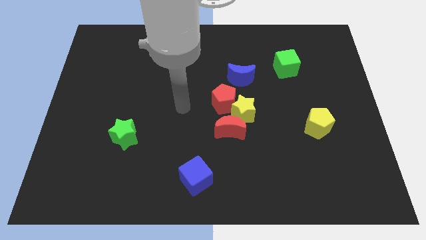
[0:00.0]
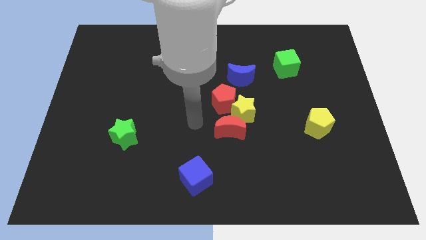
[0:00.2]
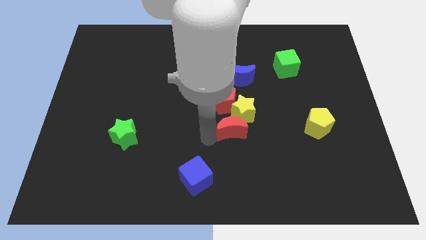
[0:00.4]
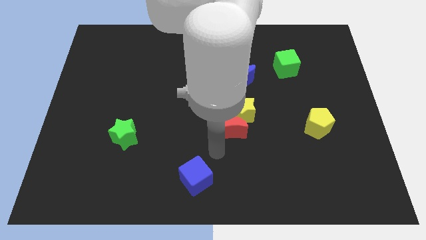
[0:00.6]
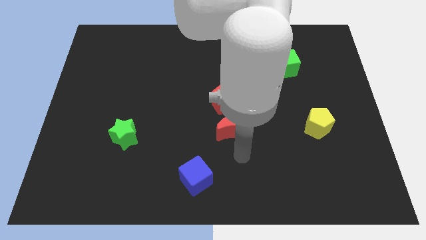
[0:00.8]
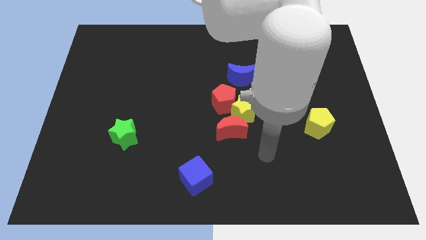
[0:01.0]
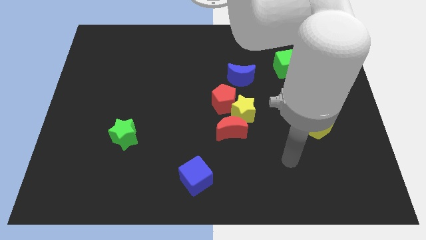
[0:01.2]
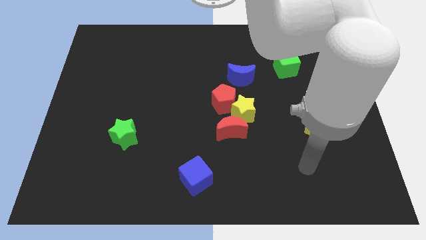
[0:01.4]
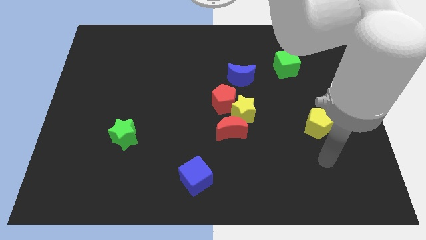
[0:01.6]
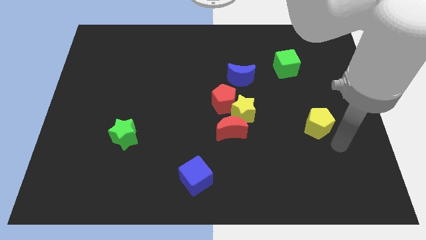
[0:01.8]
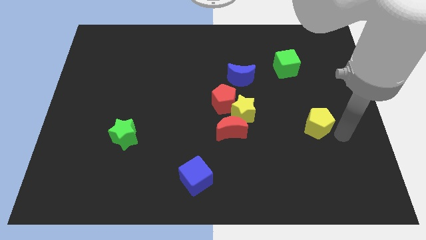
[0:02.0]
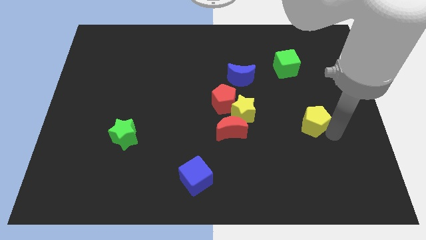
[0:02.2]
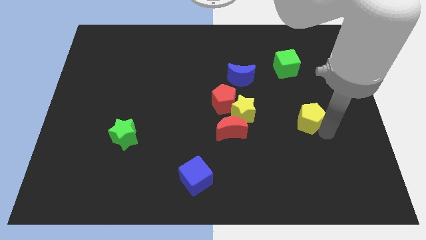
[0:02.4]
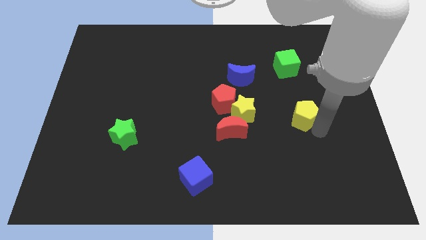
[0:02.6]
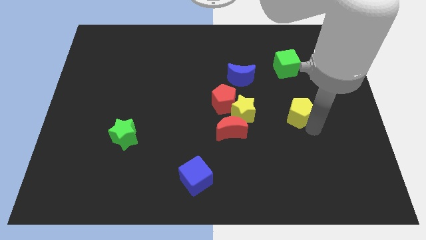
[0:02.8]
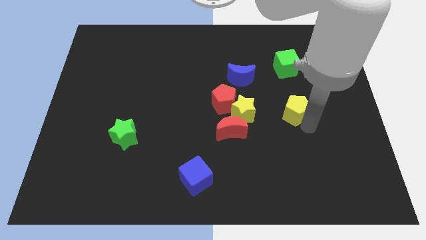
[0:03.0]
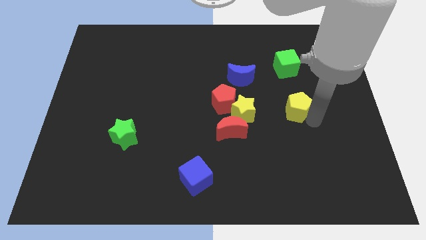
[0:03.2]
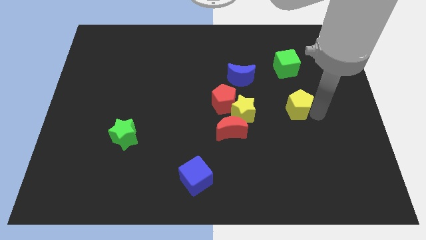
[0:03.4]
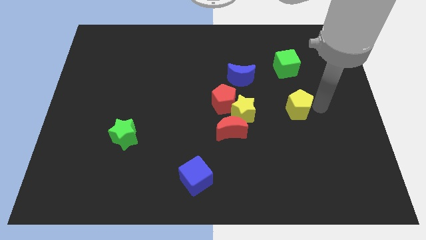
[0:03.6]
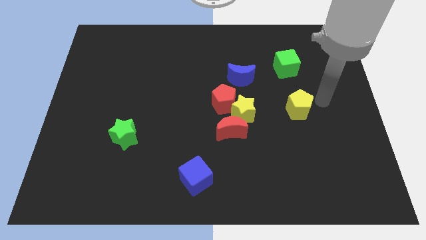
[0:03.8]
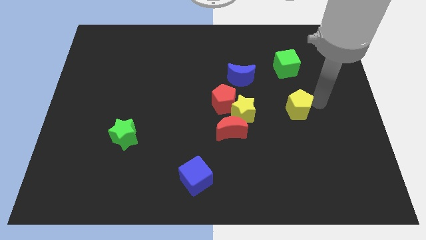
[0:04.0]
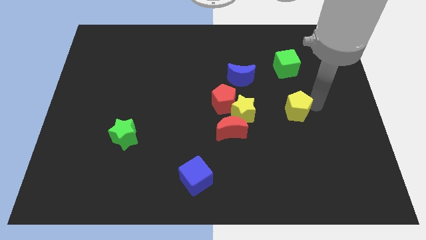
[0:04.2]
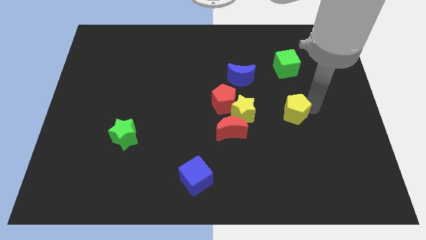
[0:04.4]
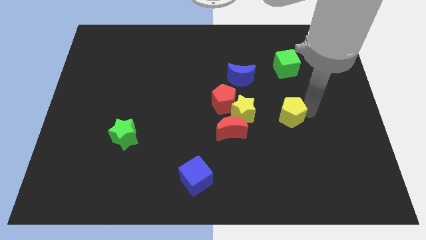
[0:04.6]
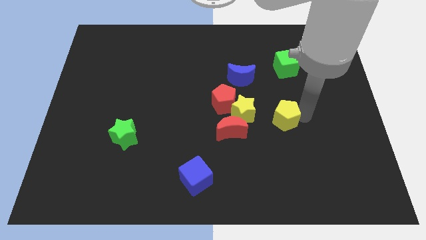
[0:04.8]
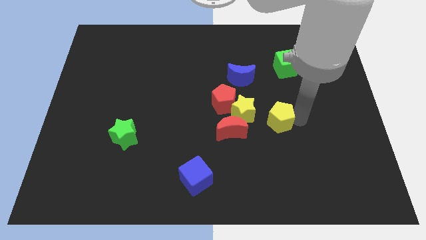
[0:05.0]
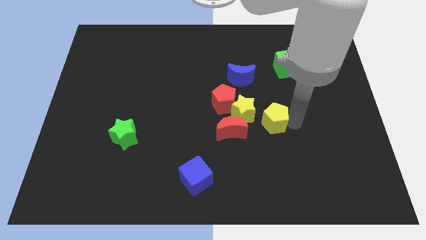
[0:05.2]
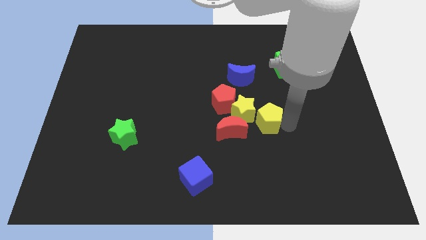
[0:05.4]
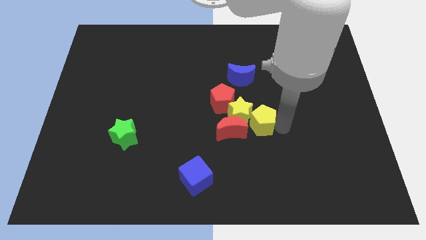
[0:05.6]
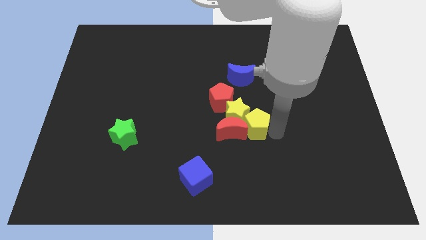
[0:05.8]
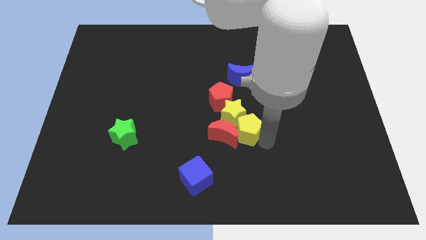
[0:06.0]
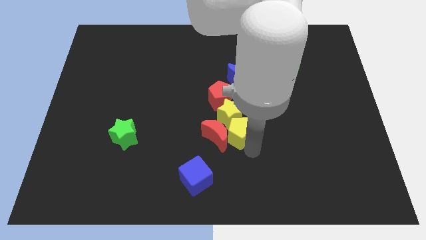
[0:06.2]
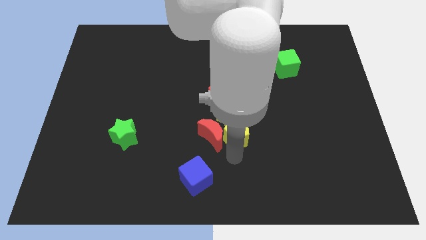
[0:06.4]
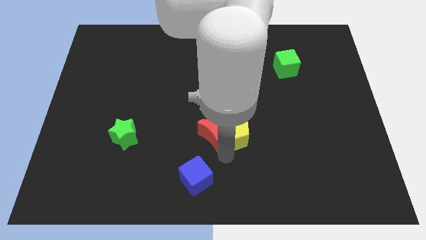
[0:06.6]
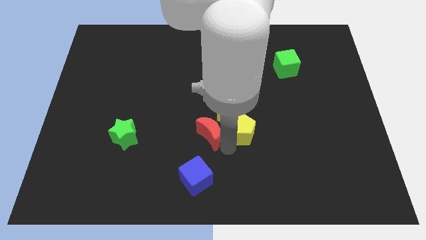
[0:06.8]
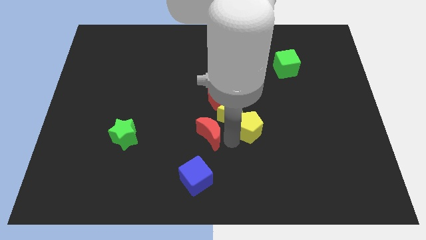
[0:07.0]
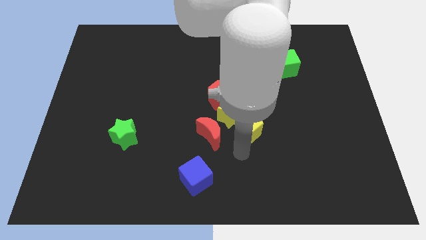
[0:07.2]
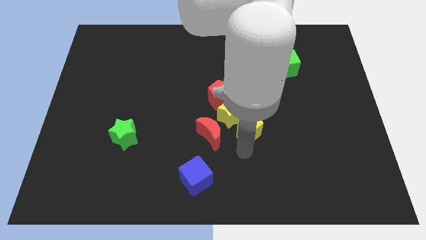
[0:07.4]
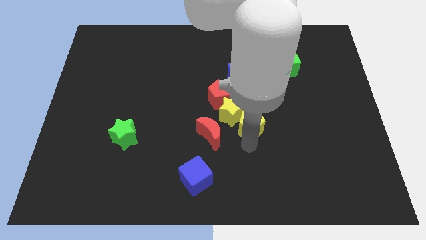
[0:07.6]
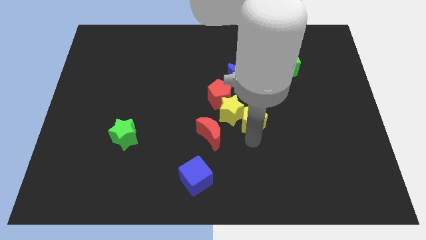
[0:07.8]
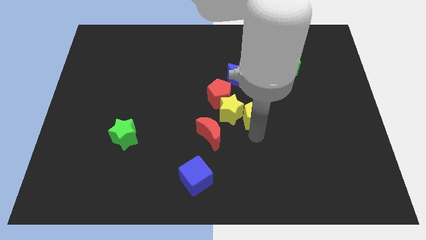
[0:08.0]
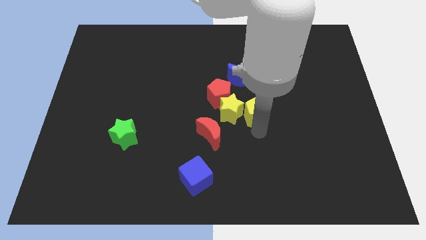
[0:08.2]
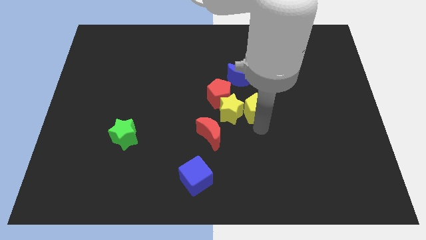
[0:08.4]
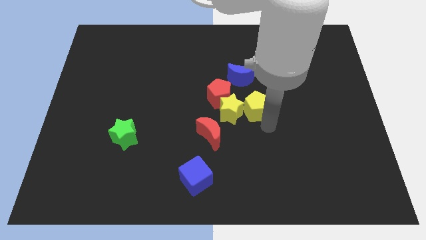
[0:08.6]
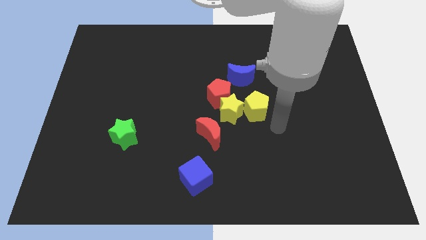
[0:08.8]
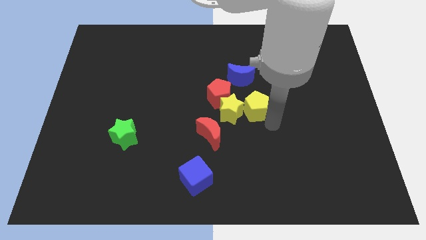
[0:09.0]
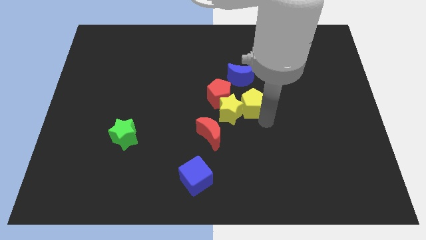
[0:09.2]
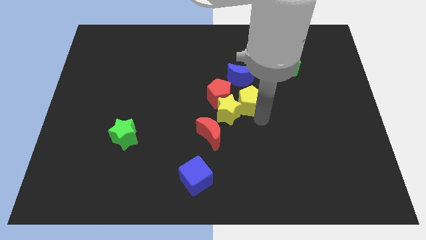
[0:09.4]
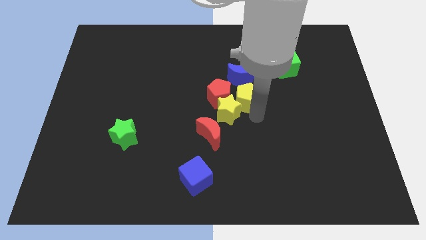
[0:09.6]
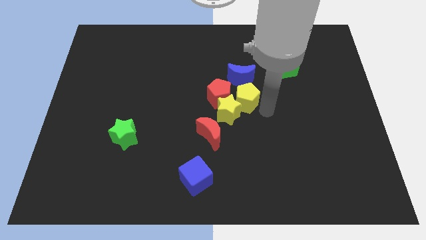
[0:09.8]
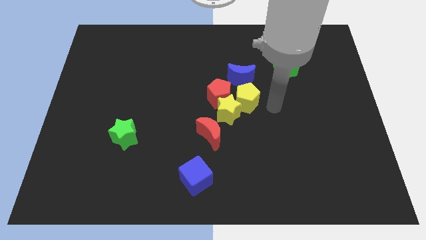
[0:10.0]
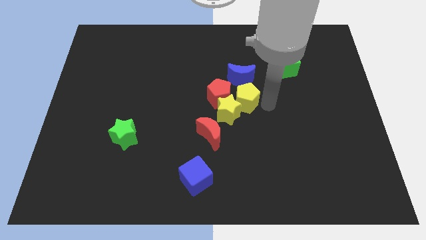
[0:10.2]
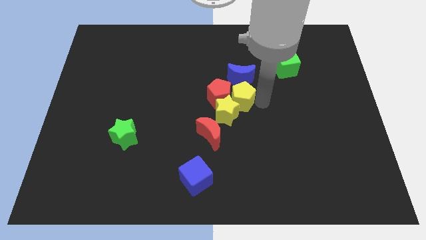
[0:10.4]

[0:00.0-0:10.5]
put the yellow pentagon next to the red pentagon

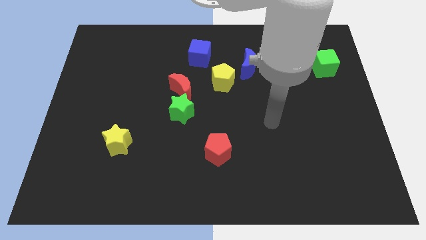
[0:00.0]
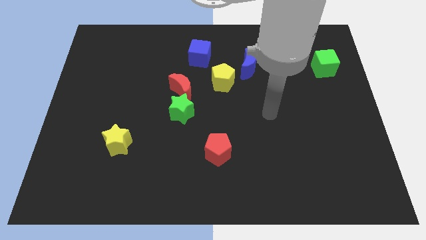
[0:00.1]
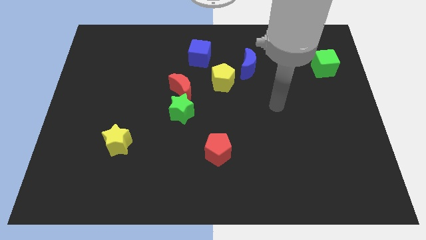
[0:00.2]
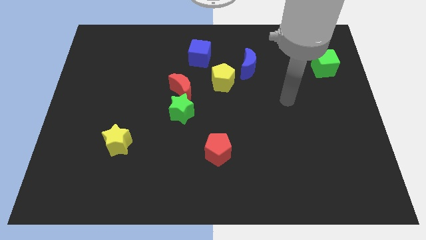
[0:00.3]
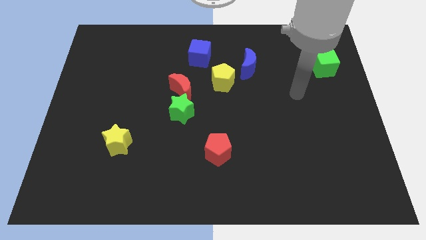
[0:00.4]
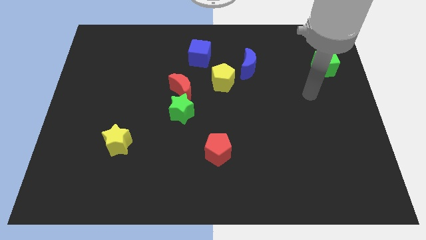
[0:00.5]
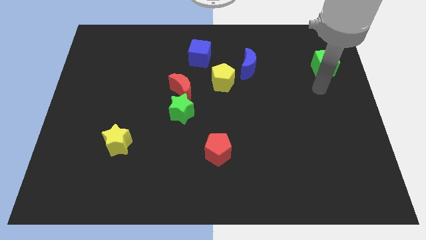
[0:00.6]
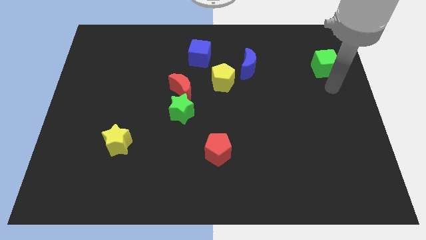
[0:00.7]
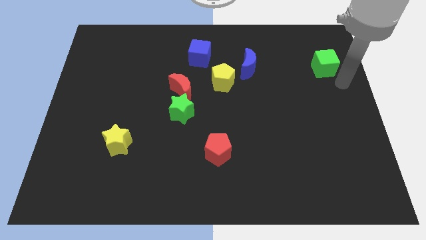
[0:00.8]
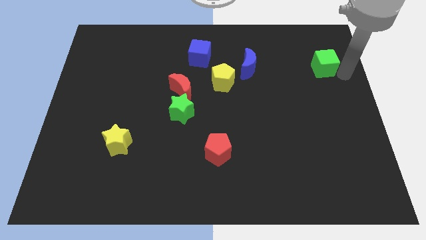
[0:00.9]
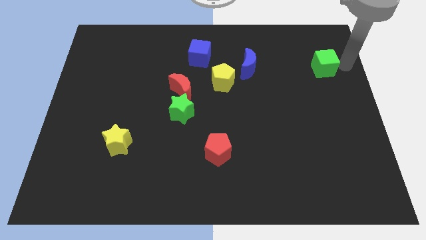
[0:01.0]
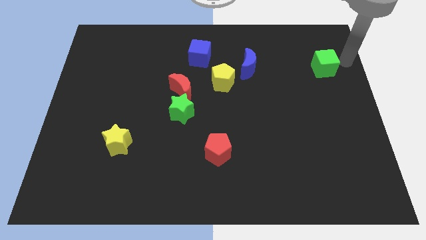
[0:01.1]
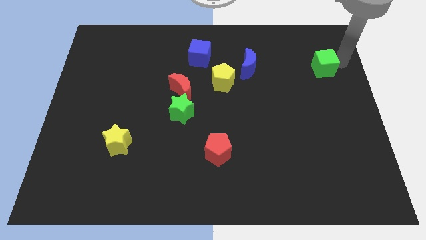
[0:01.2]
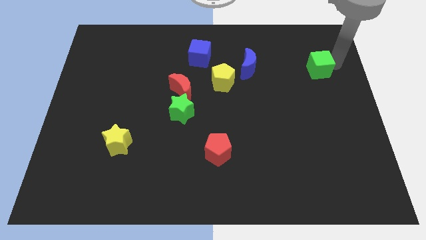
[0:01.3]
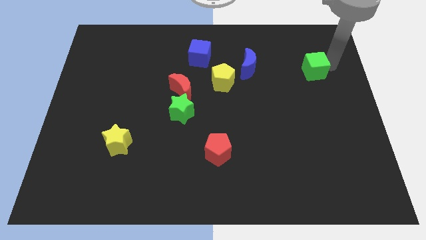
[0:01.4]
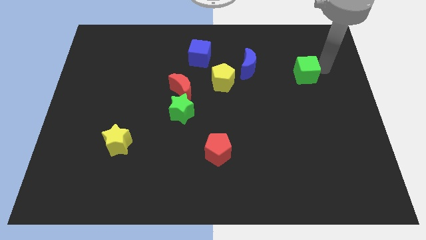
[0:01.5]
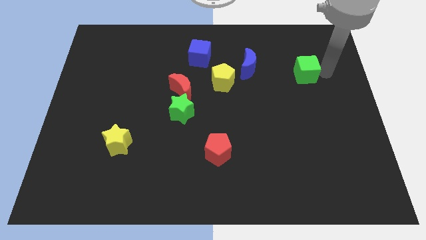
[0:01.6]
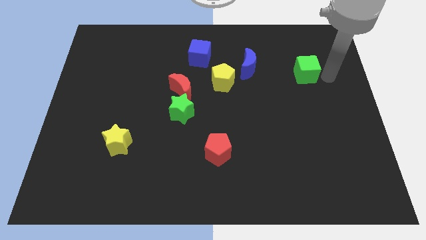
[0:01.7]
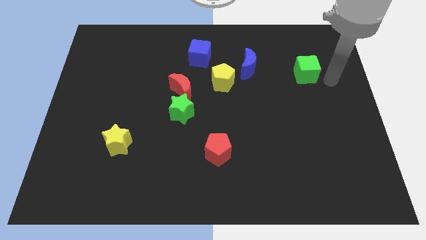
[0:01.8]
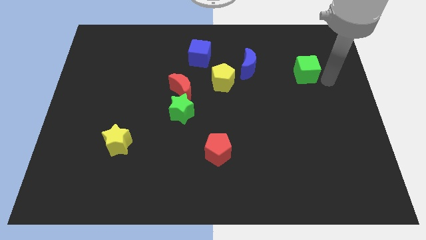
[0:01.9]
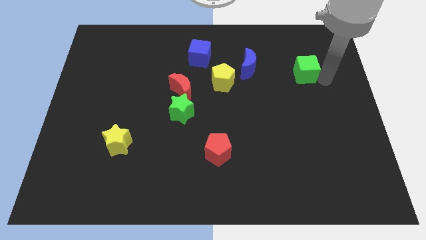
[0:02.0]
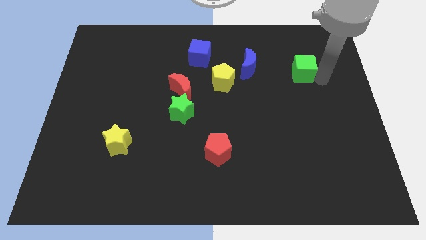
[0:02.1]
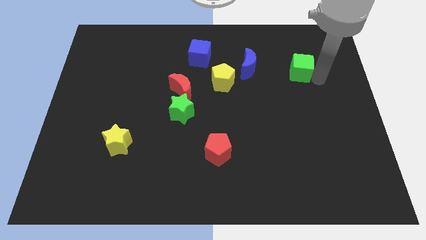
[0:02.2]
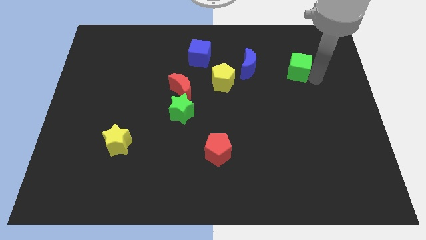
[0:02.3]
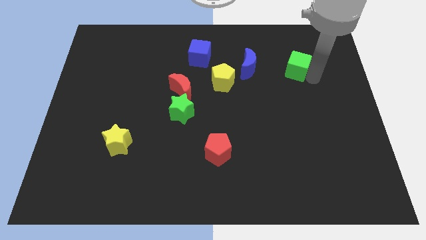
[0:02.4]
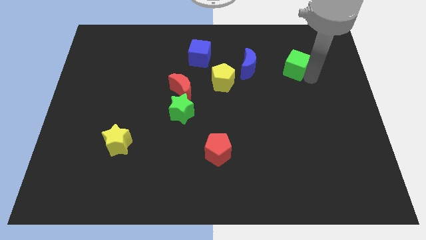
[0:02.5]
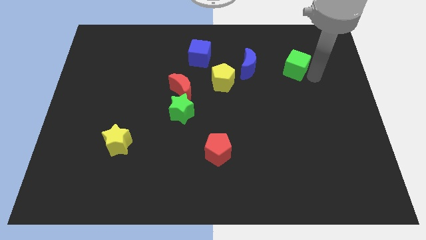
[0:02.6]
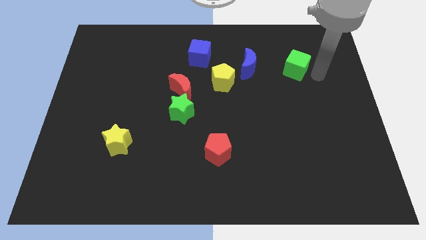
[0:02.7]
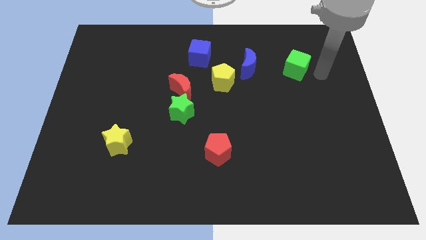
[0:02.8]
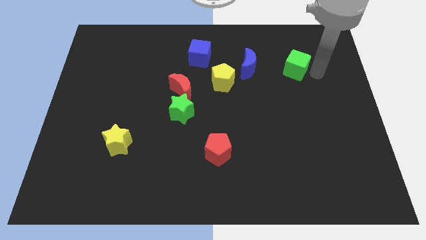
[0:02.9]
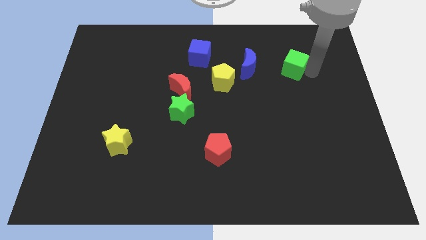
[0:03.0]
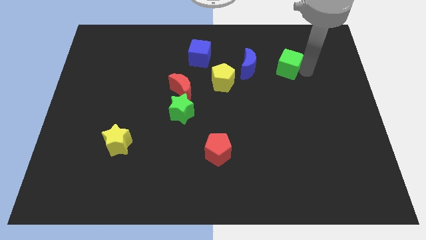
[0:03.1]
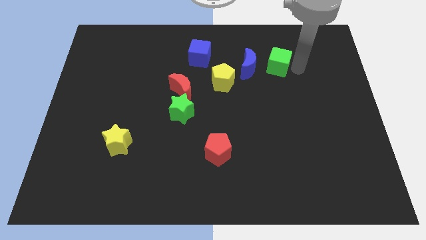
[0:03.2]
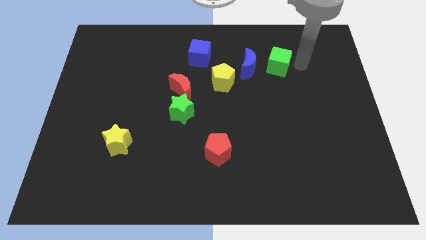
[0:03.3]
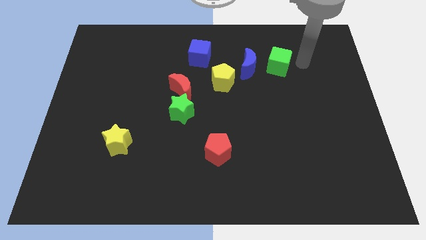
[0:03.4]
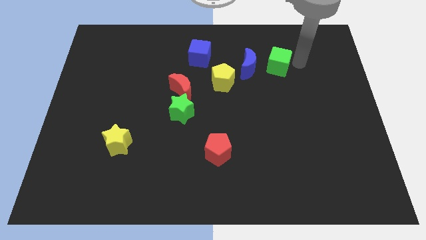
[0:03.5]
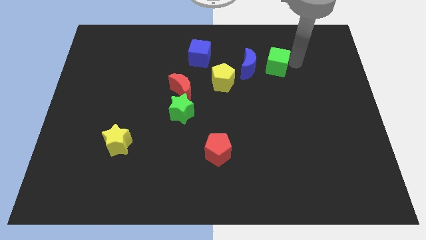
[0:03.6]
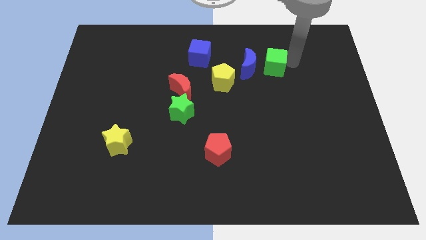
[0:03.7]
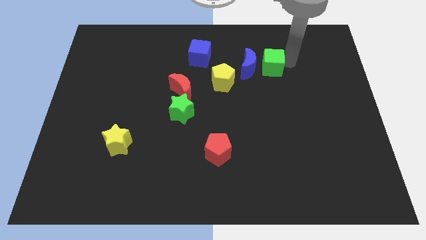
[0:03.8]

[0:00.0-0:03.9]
put the green cube towards the blue moon
